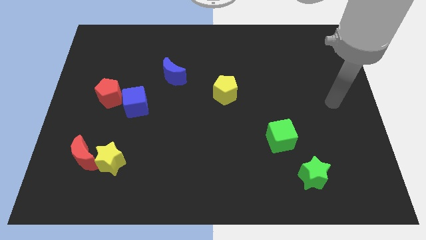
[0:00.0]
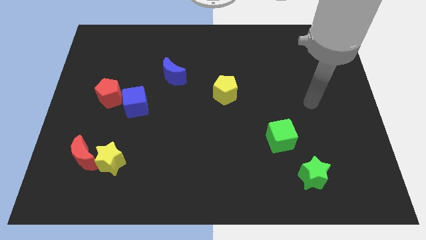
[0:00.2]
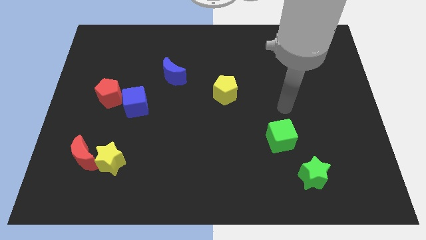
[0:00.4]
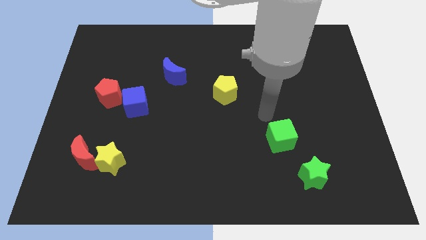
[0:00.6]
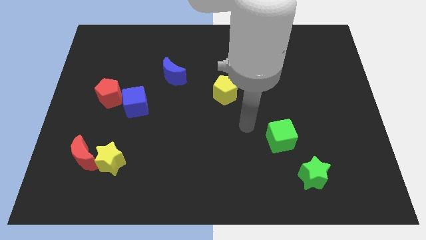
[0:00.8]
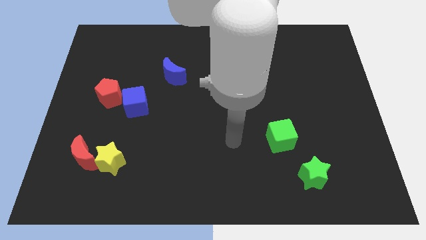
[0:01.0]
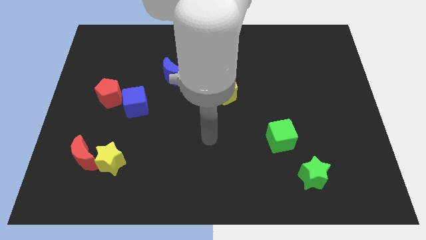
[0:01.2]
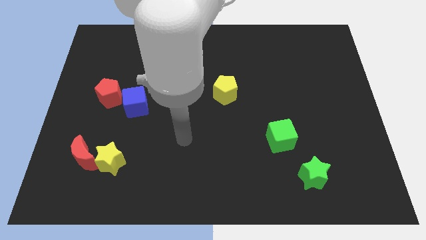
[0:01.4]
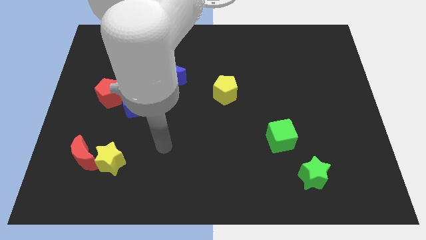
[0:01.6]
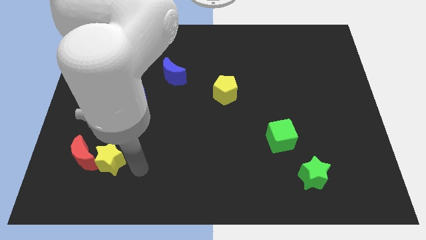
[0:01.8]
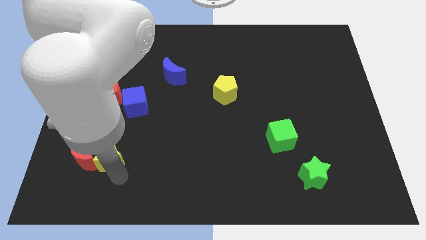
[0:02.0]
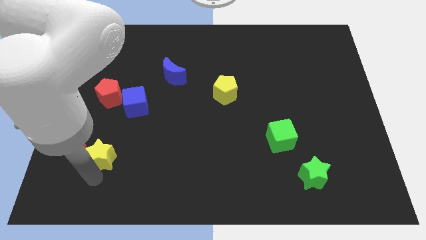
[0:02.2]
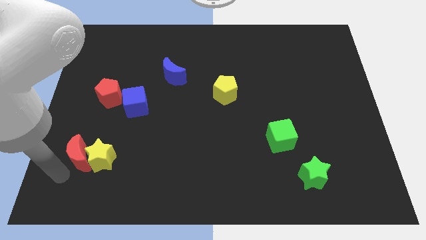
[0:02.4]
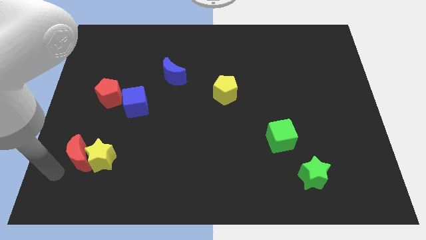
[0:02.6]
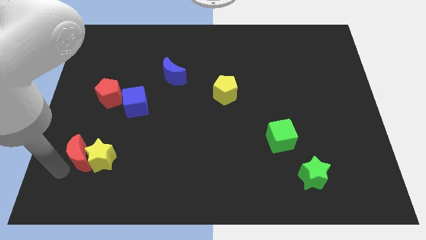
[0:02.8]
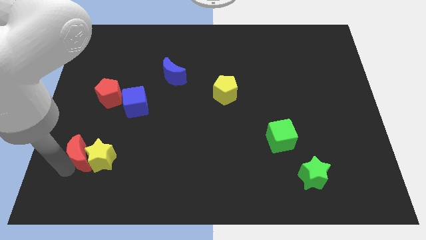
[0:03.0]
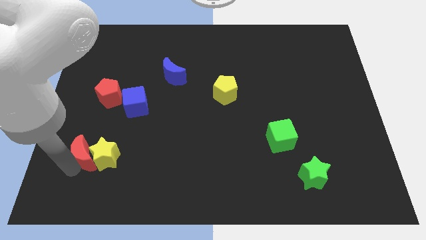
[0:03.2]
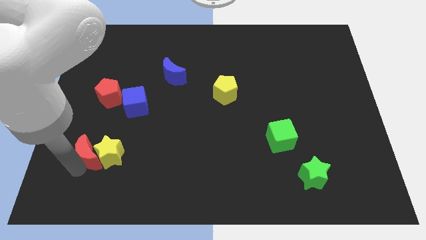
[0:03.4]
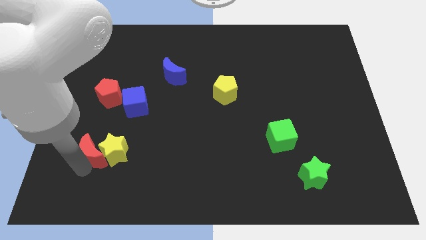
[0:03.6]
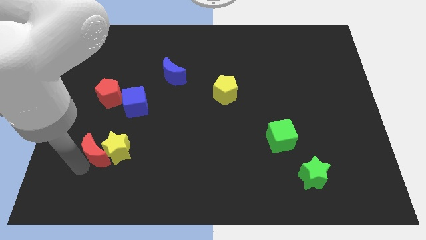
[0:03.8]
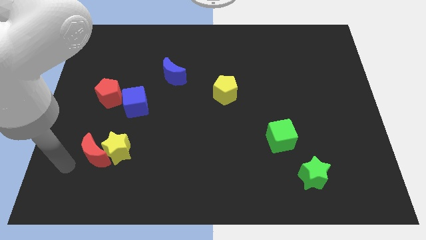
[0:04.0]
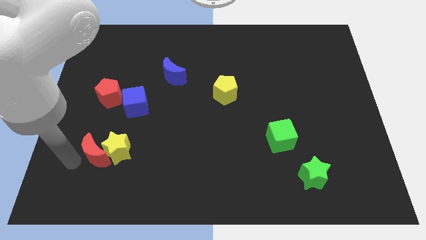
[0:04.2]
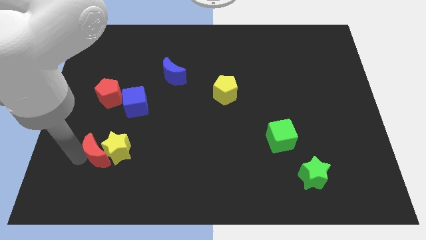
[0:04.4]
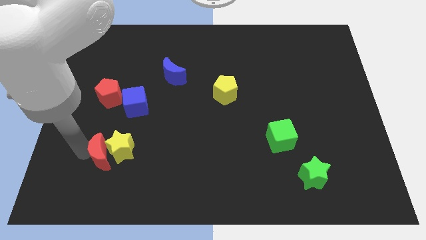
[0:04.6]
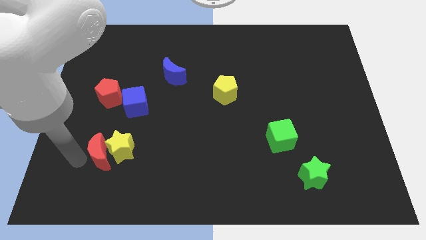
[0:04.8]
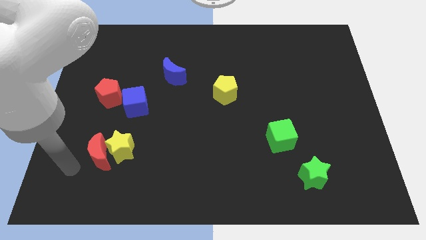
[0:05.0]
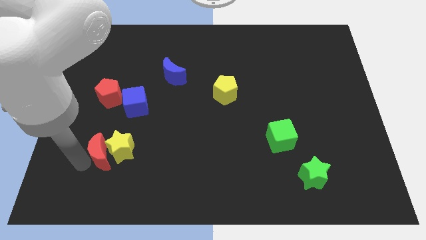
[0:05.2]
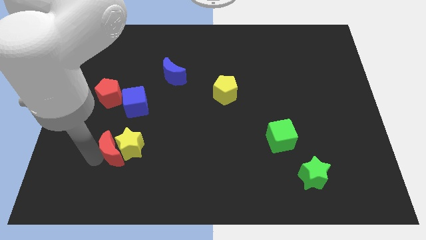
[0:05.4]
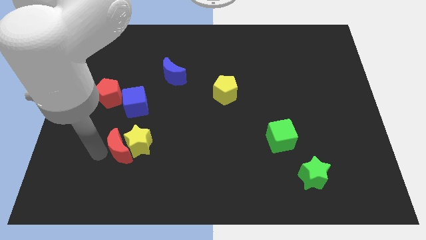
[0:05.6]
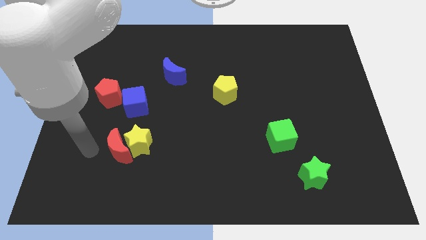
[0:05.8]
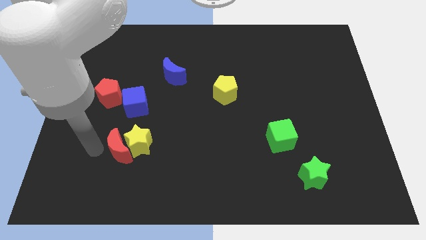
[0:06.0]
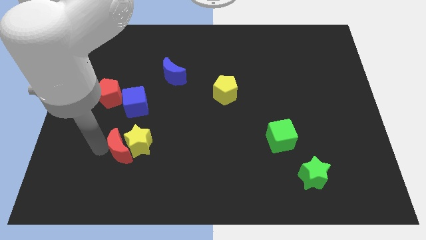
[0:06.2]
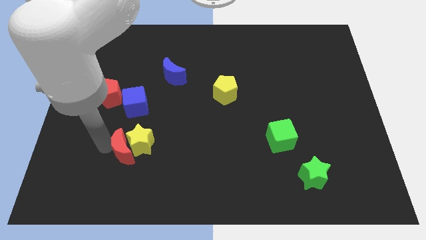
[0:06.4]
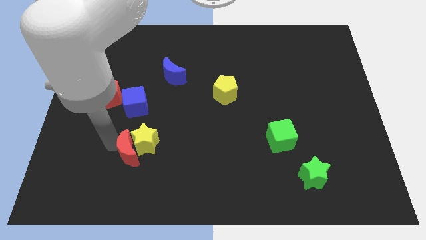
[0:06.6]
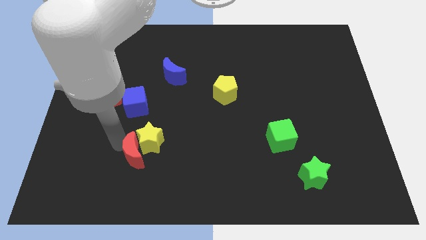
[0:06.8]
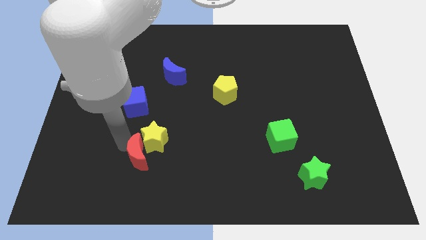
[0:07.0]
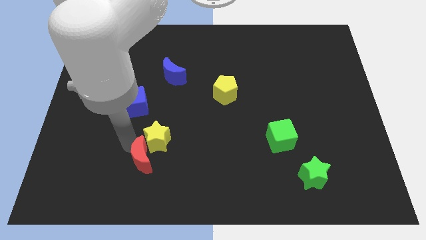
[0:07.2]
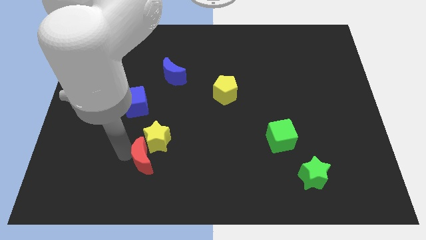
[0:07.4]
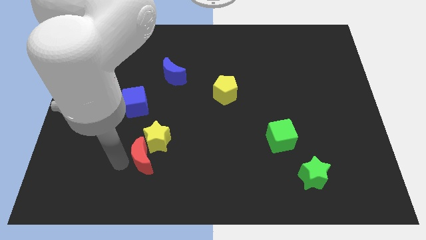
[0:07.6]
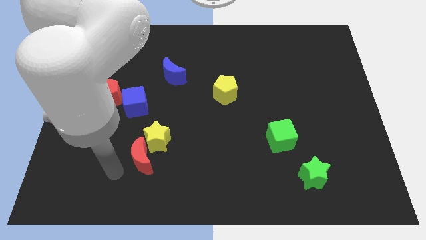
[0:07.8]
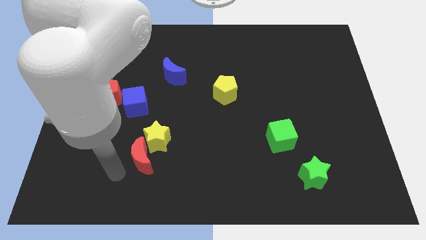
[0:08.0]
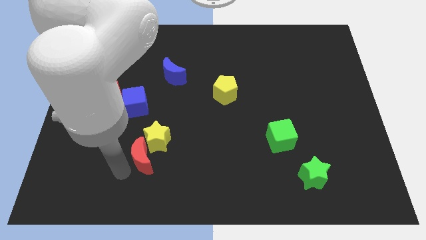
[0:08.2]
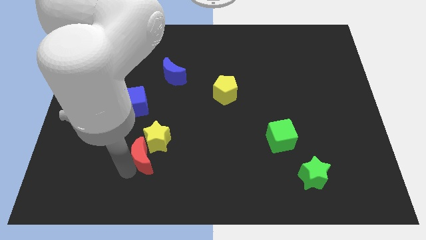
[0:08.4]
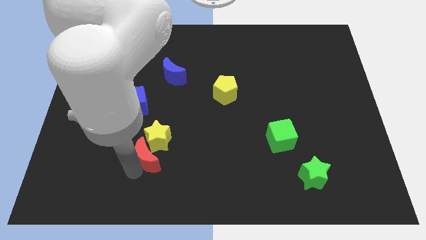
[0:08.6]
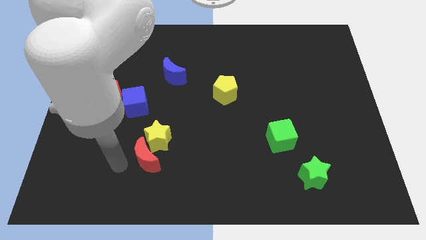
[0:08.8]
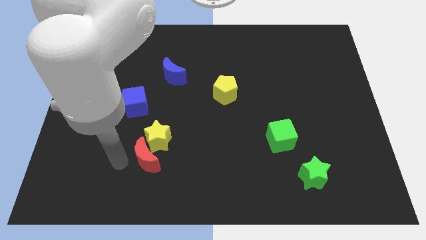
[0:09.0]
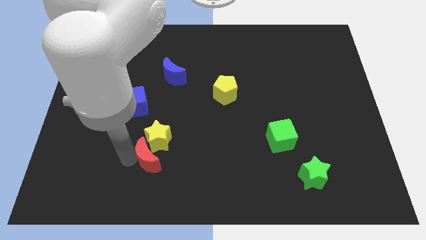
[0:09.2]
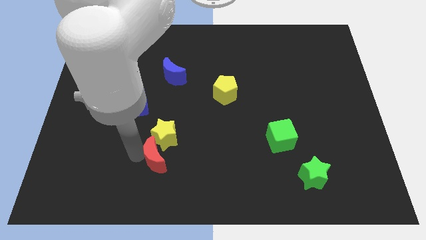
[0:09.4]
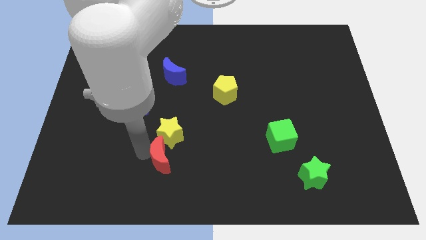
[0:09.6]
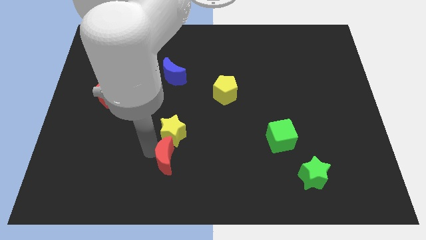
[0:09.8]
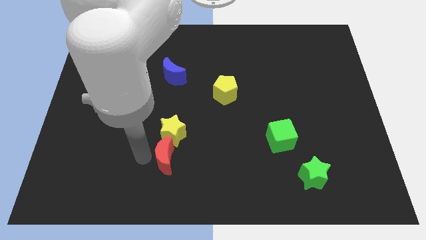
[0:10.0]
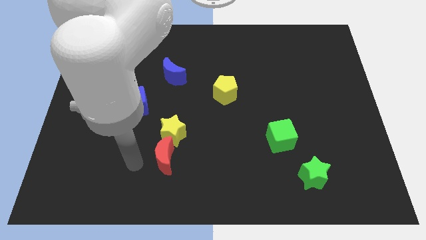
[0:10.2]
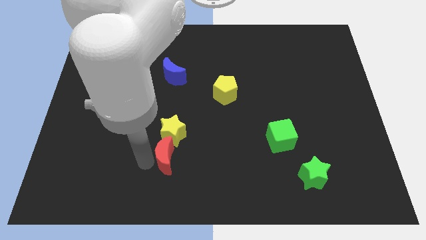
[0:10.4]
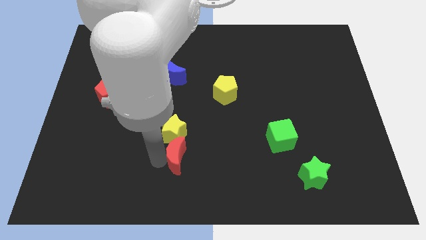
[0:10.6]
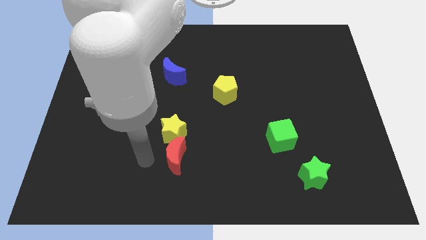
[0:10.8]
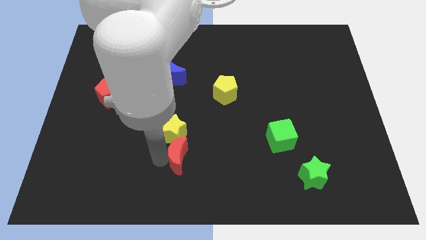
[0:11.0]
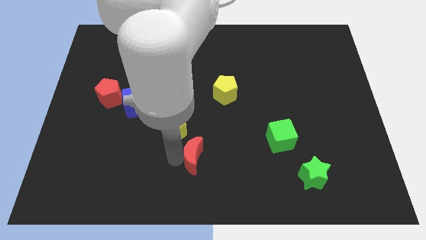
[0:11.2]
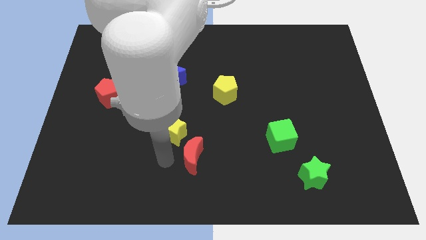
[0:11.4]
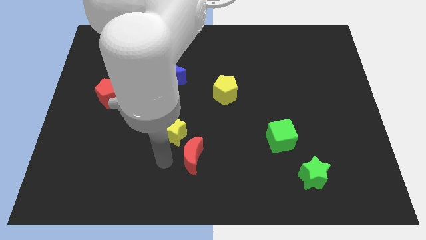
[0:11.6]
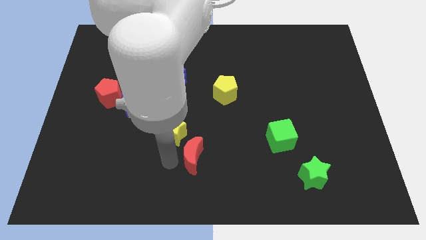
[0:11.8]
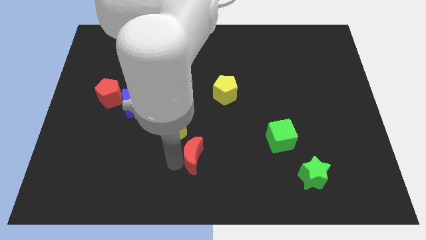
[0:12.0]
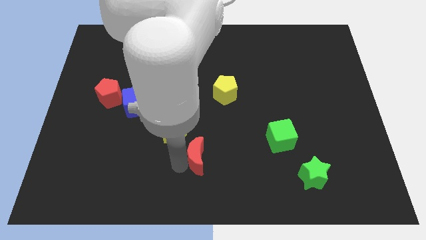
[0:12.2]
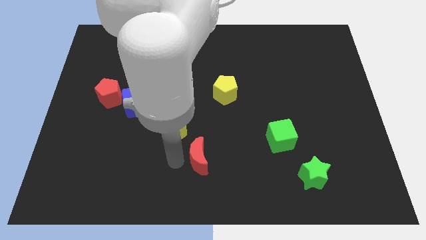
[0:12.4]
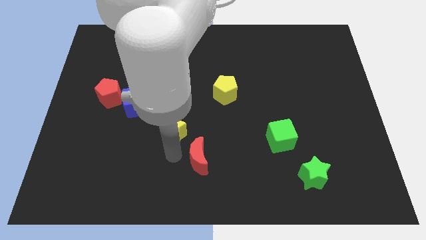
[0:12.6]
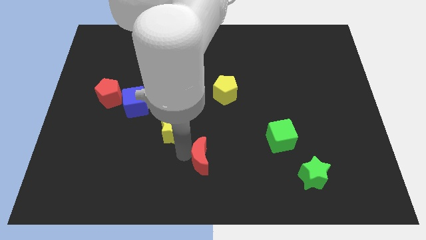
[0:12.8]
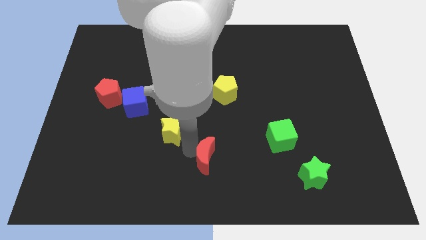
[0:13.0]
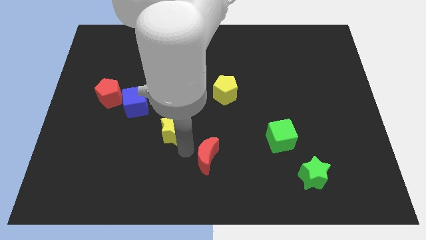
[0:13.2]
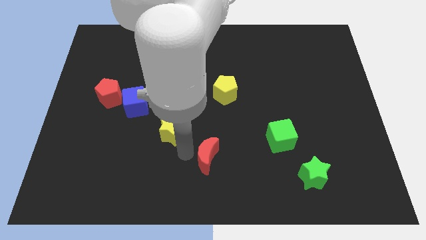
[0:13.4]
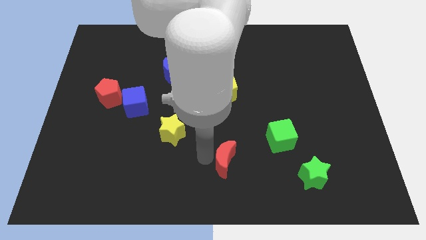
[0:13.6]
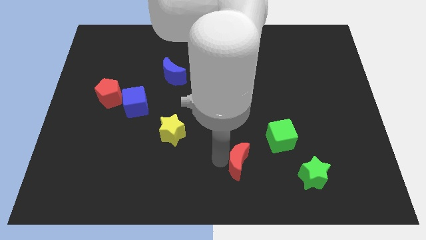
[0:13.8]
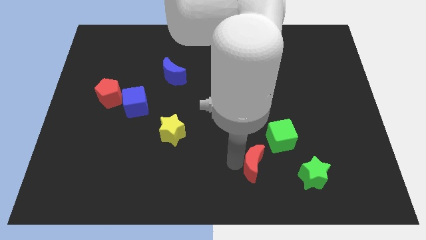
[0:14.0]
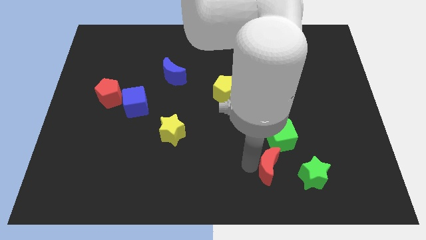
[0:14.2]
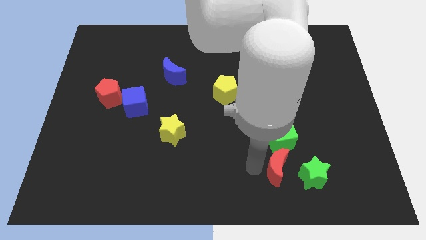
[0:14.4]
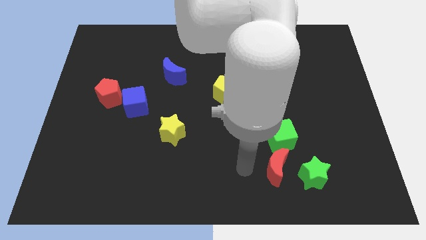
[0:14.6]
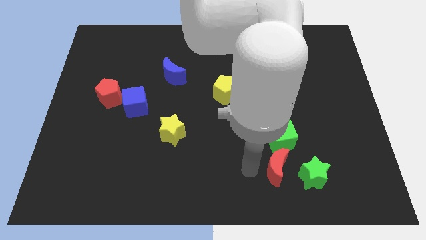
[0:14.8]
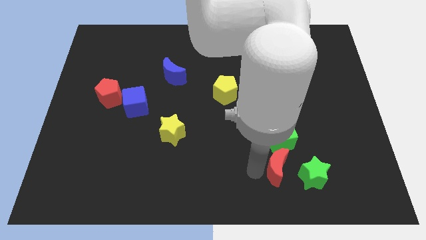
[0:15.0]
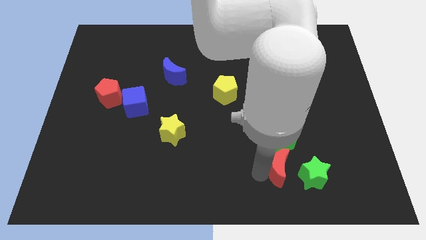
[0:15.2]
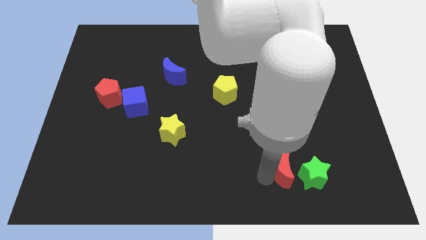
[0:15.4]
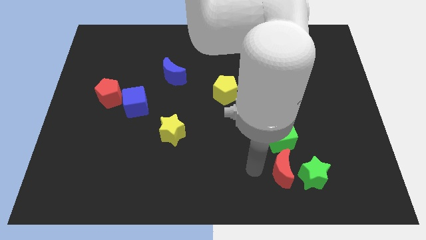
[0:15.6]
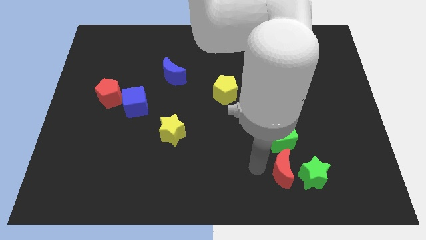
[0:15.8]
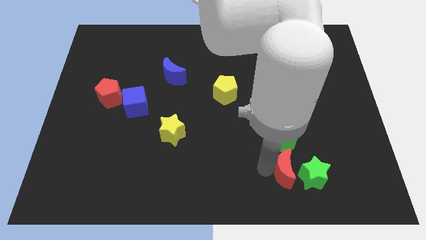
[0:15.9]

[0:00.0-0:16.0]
slide the red moon to the green star
